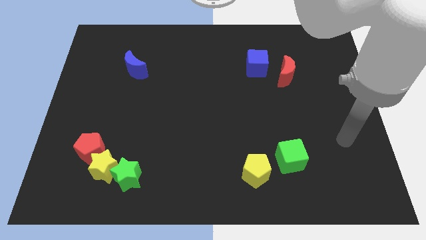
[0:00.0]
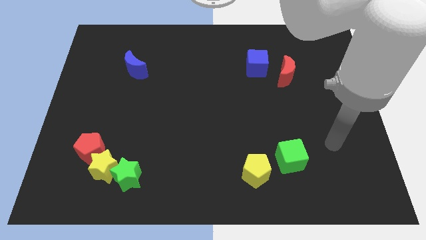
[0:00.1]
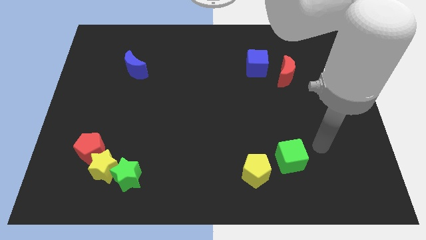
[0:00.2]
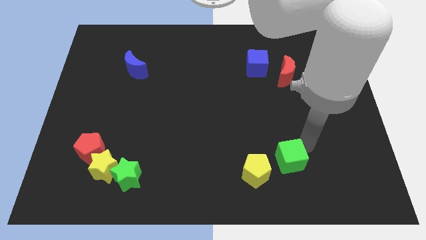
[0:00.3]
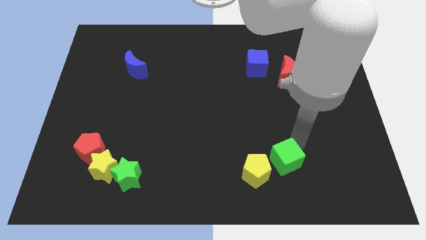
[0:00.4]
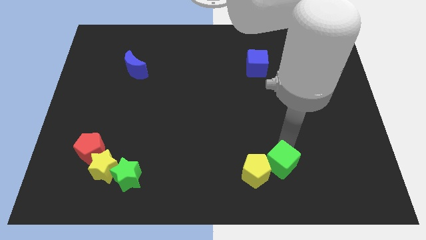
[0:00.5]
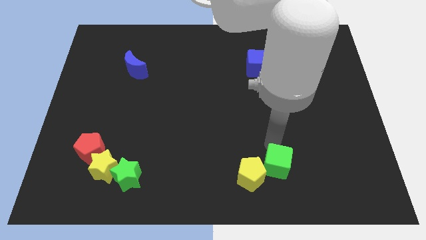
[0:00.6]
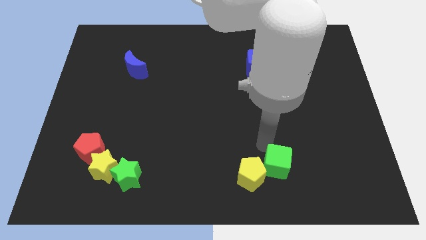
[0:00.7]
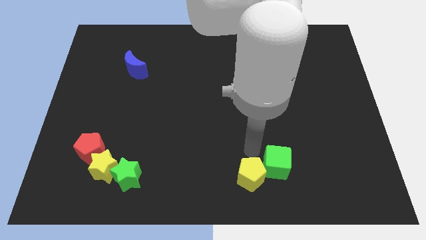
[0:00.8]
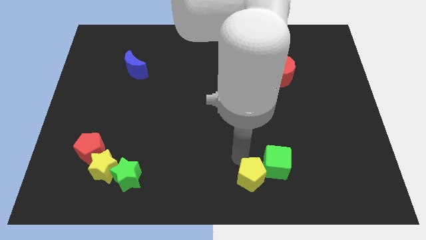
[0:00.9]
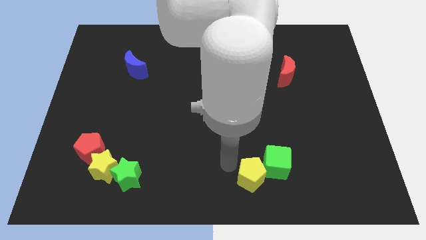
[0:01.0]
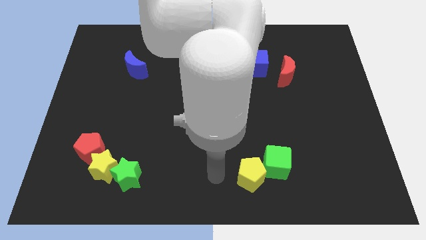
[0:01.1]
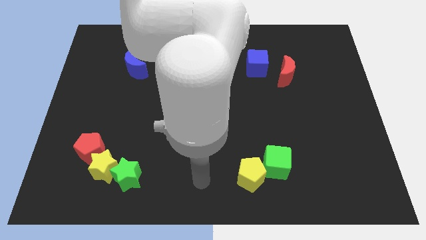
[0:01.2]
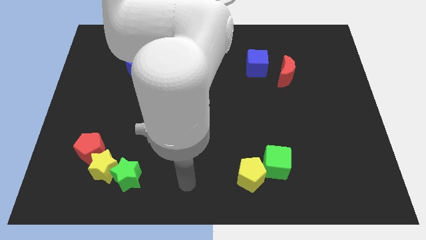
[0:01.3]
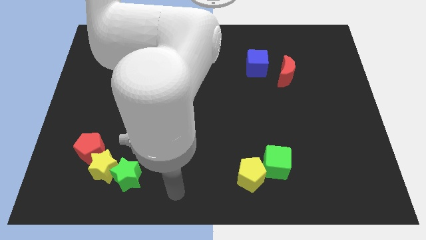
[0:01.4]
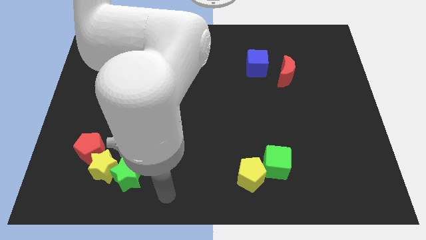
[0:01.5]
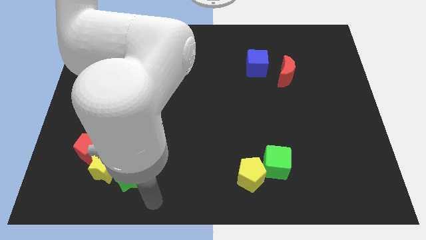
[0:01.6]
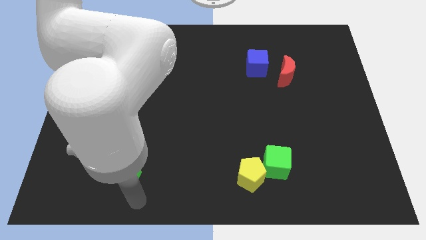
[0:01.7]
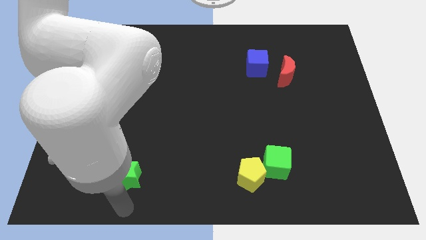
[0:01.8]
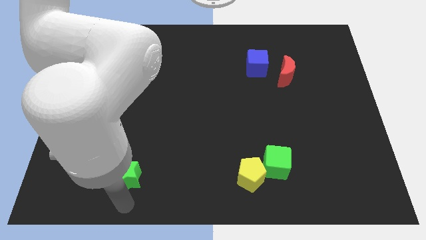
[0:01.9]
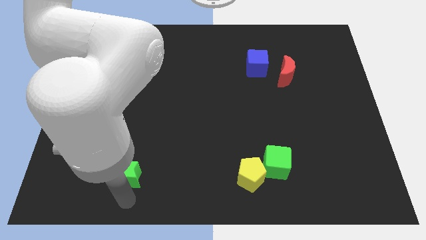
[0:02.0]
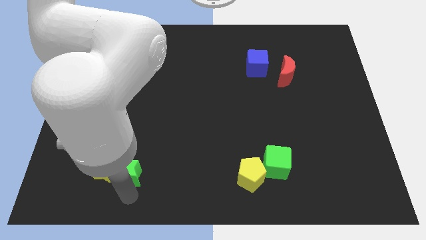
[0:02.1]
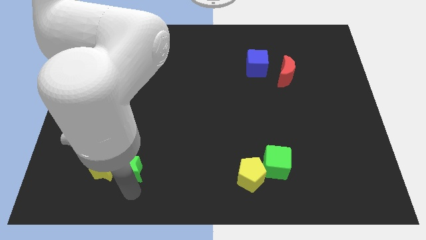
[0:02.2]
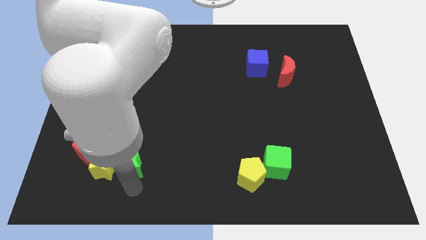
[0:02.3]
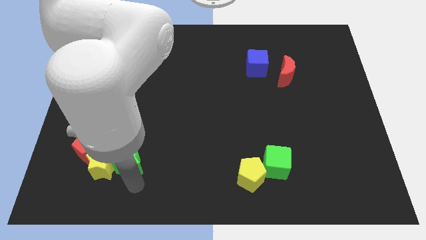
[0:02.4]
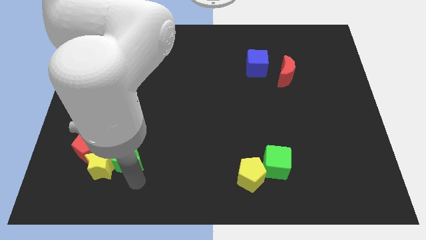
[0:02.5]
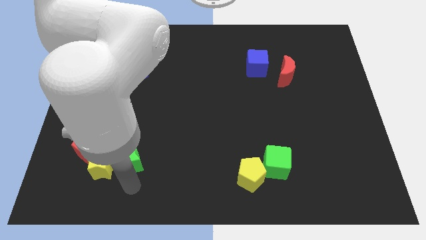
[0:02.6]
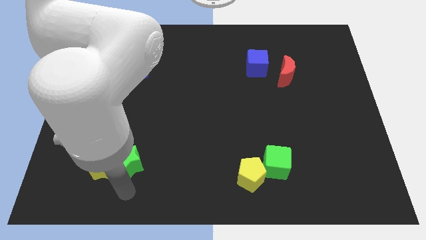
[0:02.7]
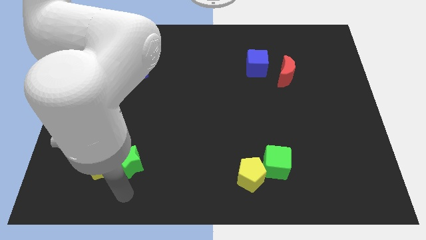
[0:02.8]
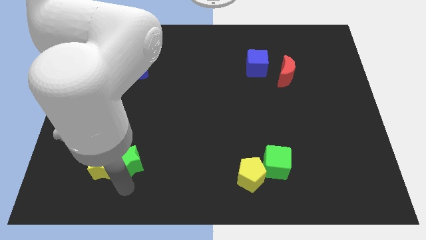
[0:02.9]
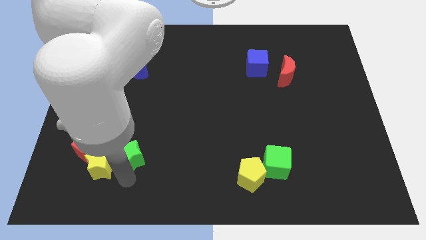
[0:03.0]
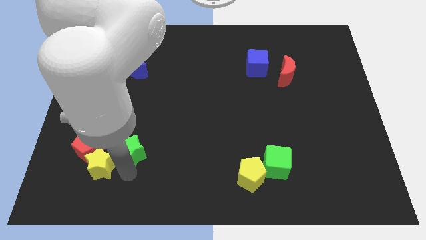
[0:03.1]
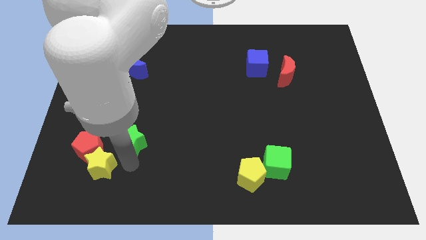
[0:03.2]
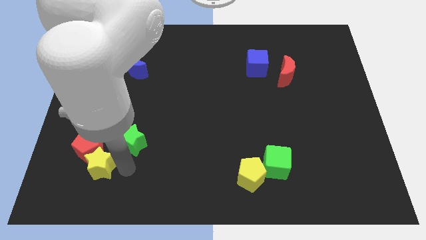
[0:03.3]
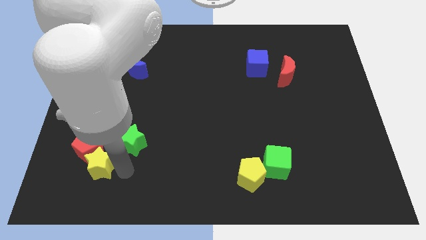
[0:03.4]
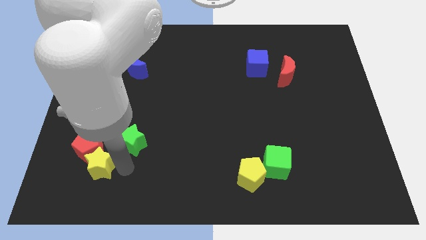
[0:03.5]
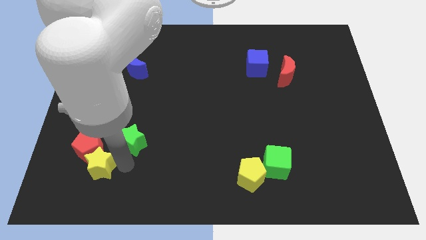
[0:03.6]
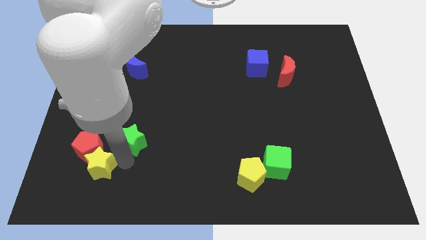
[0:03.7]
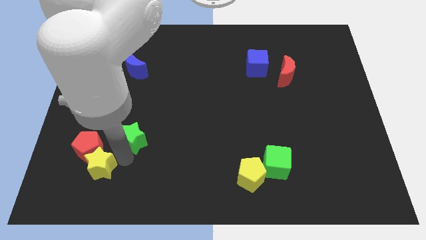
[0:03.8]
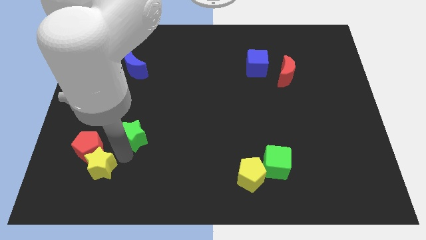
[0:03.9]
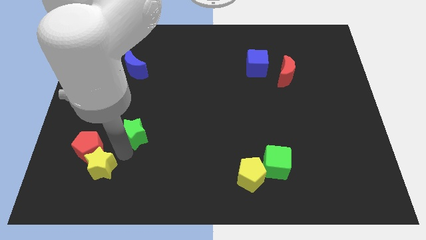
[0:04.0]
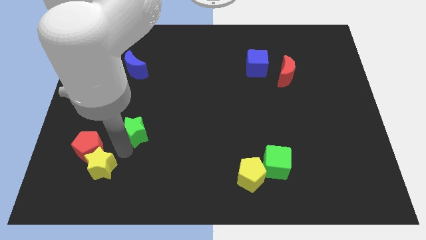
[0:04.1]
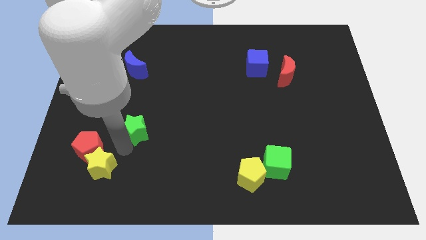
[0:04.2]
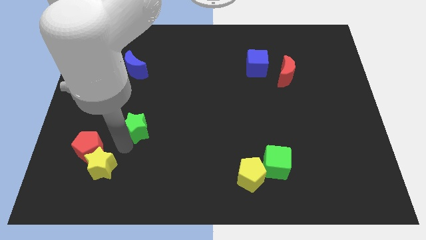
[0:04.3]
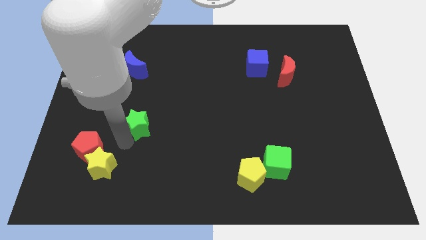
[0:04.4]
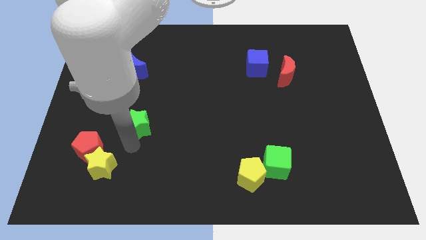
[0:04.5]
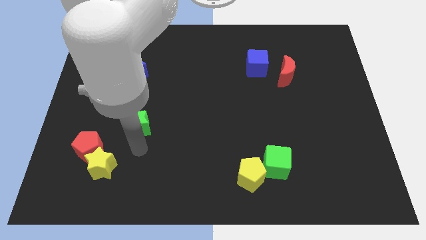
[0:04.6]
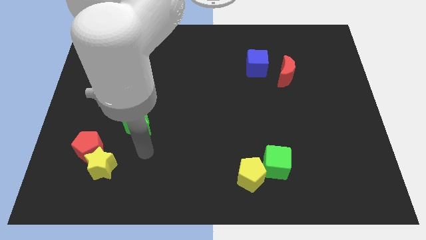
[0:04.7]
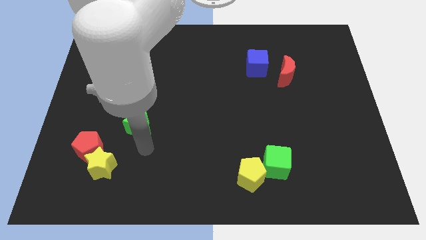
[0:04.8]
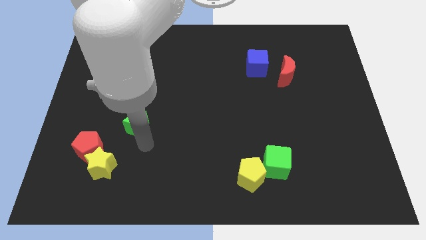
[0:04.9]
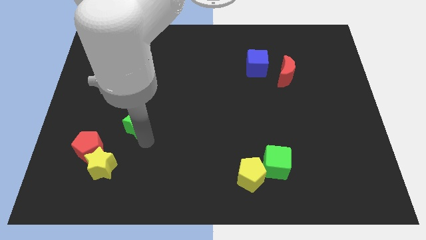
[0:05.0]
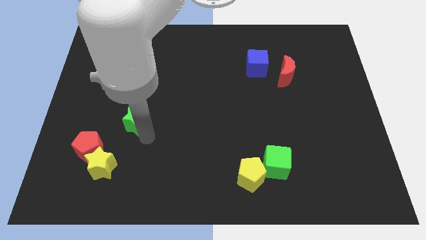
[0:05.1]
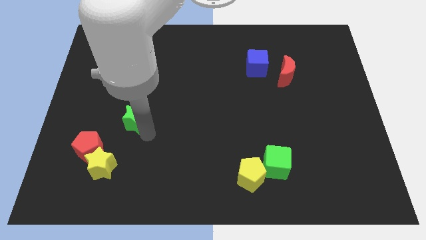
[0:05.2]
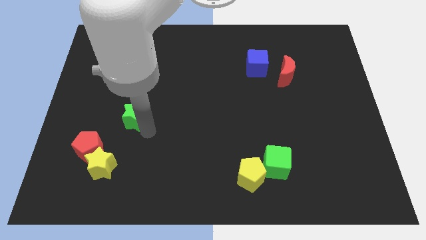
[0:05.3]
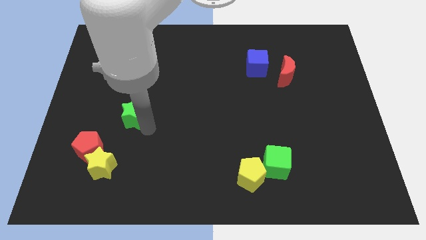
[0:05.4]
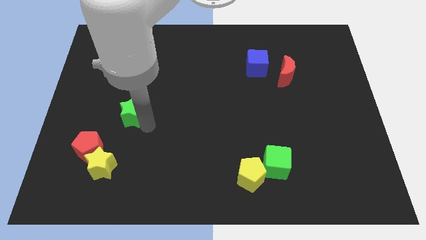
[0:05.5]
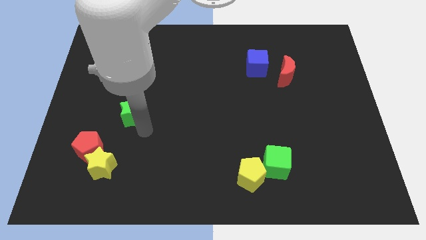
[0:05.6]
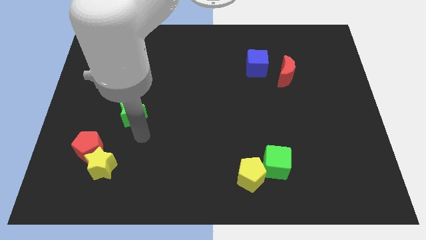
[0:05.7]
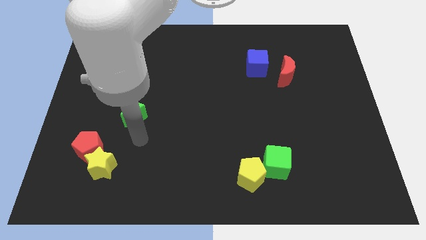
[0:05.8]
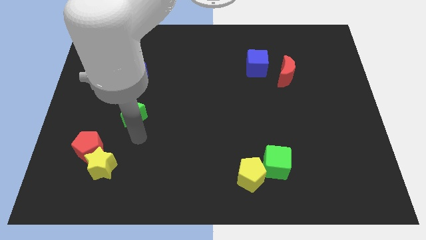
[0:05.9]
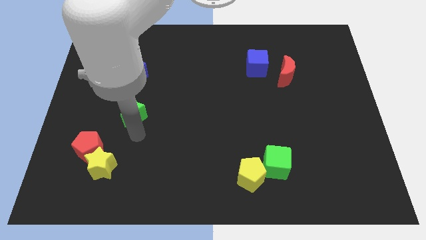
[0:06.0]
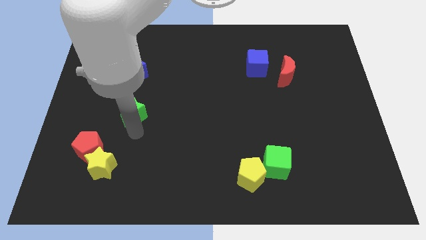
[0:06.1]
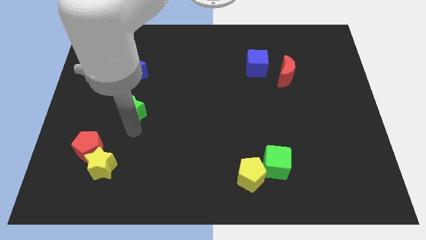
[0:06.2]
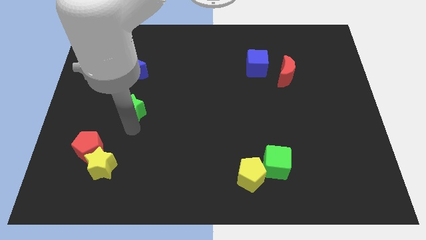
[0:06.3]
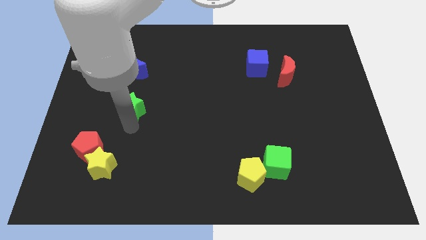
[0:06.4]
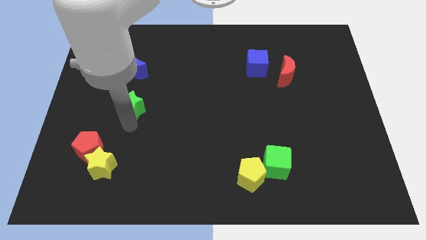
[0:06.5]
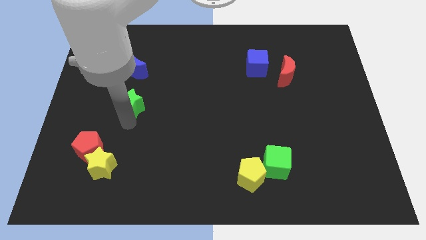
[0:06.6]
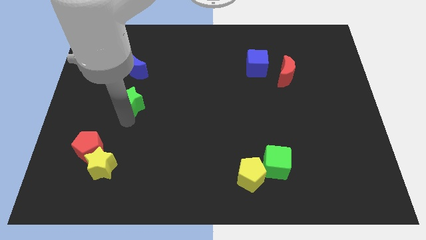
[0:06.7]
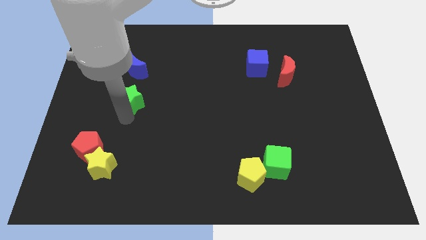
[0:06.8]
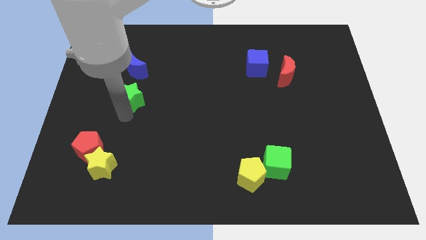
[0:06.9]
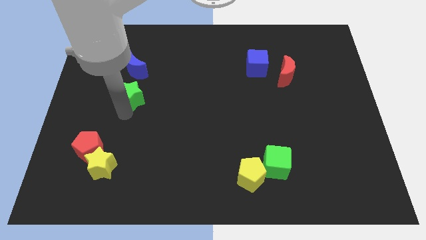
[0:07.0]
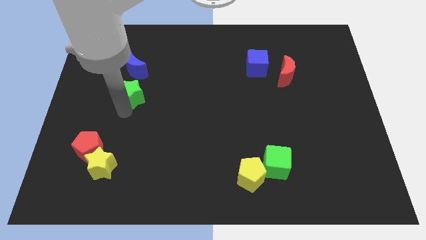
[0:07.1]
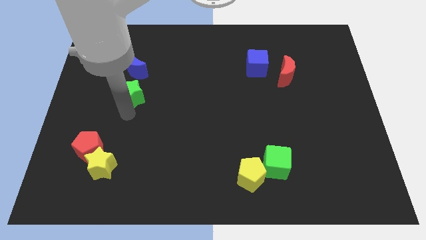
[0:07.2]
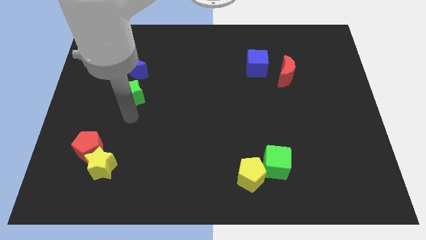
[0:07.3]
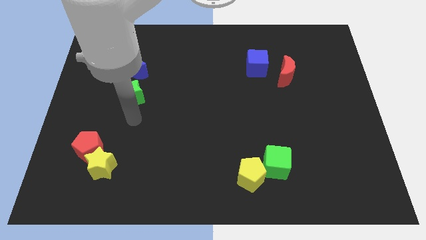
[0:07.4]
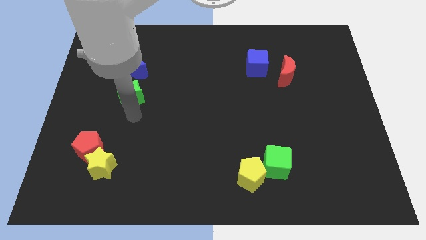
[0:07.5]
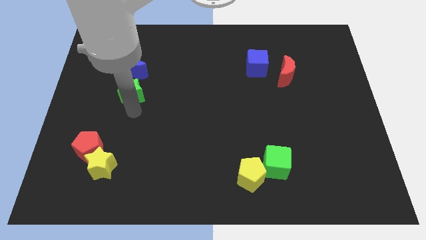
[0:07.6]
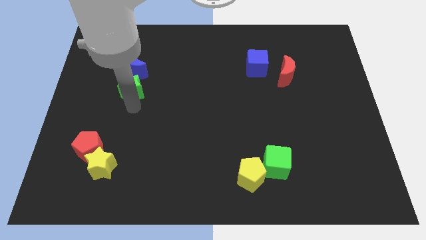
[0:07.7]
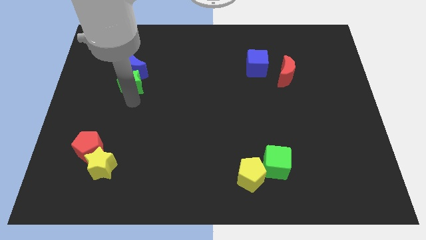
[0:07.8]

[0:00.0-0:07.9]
slide the green star close to the blue moon
